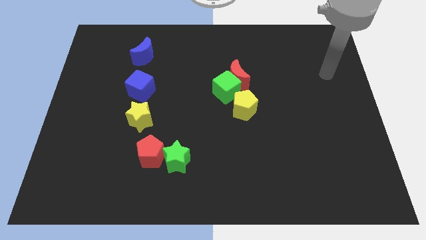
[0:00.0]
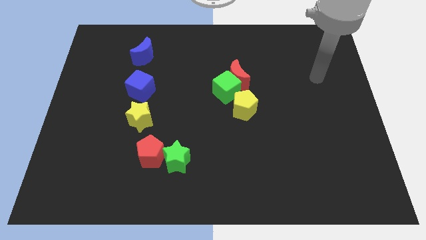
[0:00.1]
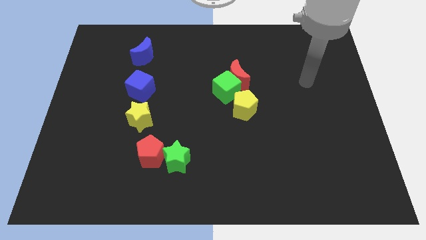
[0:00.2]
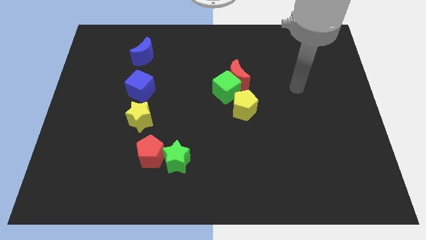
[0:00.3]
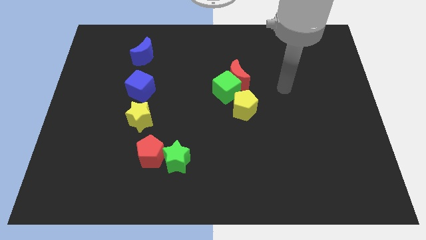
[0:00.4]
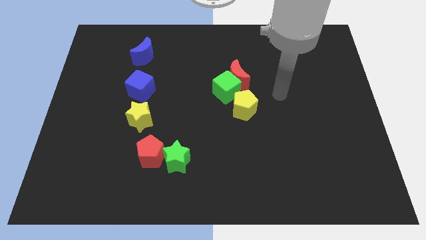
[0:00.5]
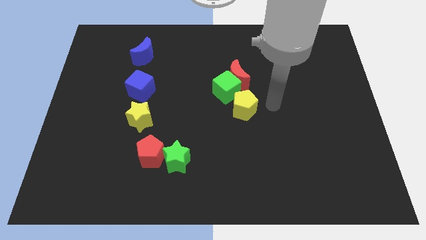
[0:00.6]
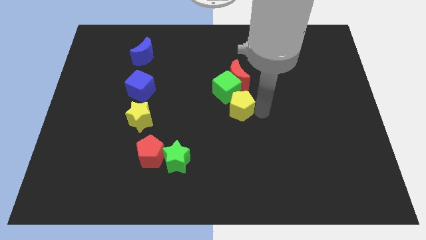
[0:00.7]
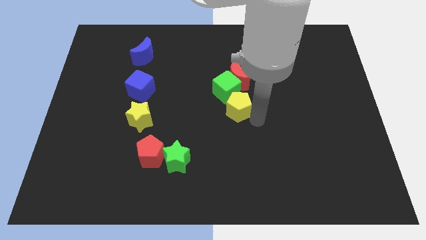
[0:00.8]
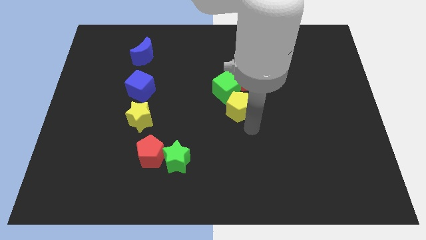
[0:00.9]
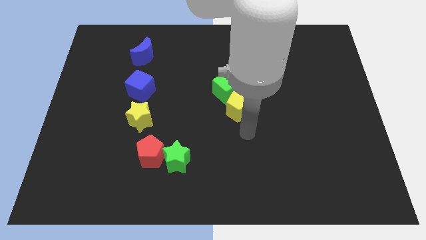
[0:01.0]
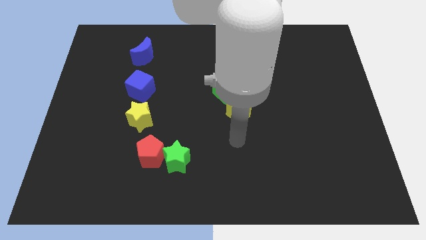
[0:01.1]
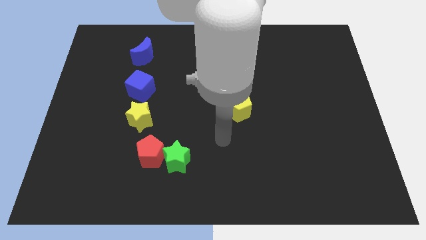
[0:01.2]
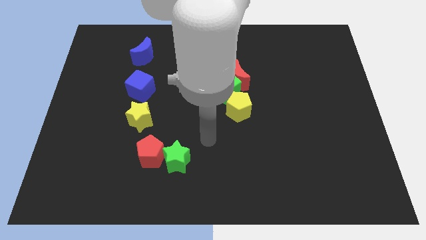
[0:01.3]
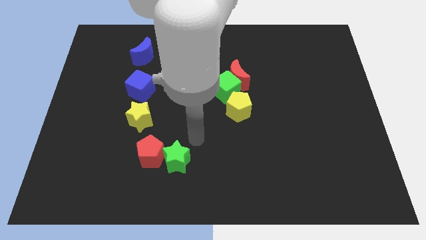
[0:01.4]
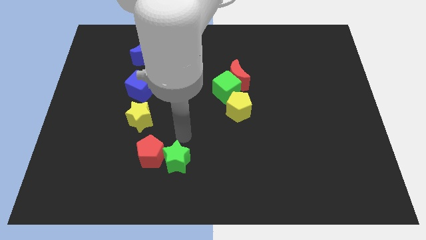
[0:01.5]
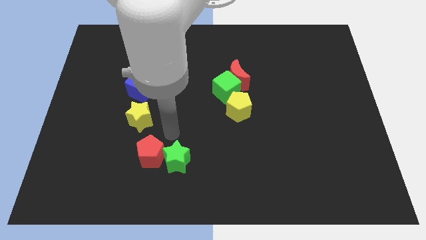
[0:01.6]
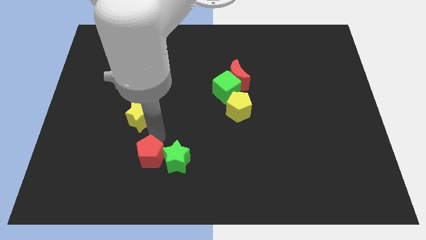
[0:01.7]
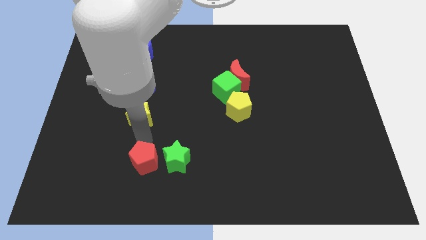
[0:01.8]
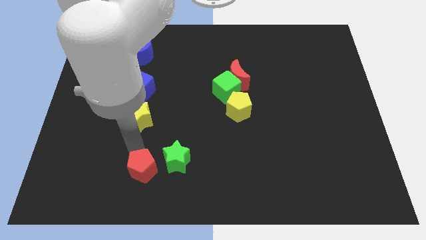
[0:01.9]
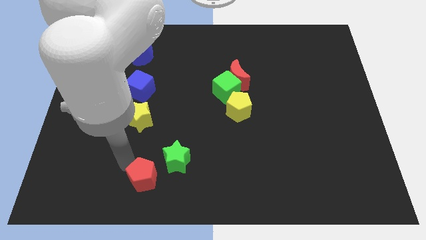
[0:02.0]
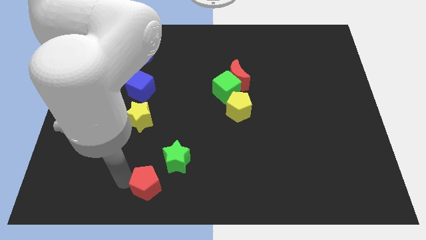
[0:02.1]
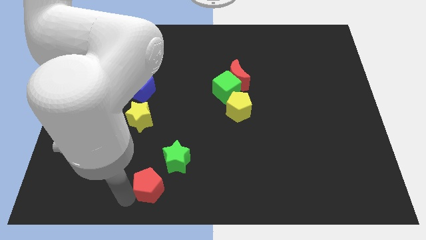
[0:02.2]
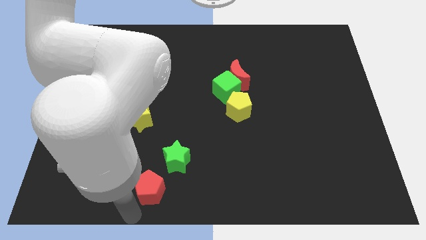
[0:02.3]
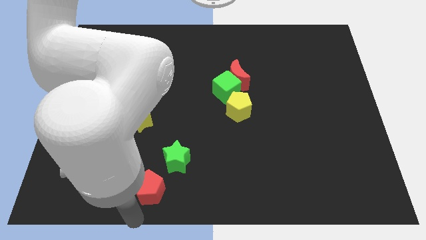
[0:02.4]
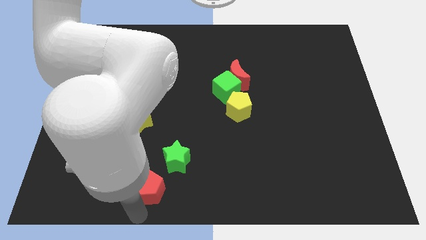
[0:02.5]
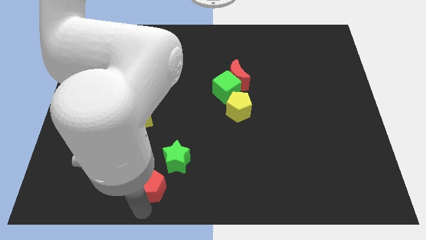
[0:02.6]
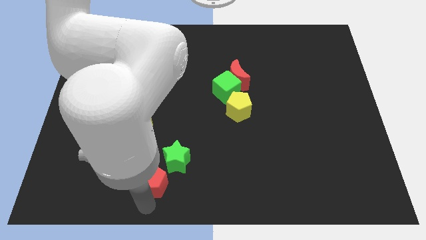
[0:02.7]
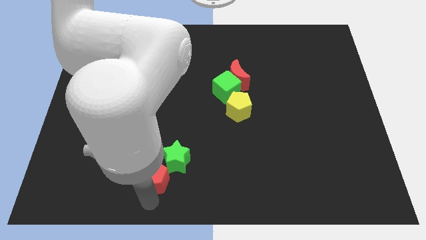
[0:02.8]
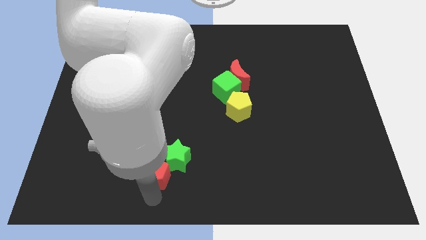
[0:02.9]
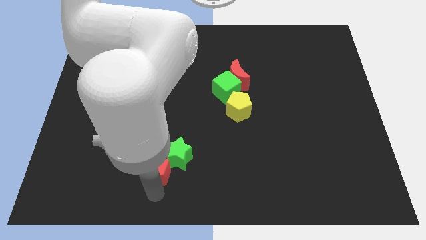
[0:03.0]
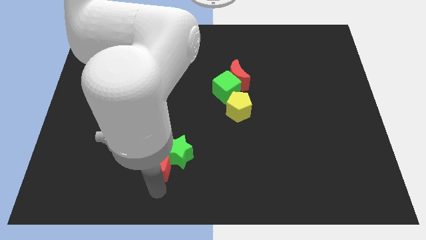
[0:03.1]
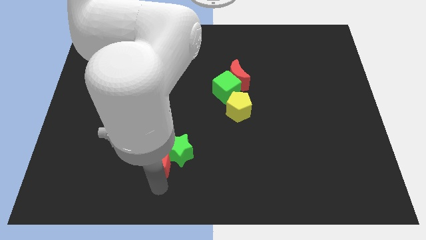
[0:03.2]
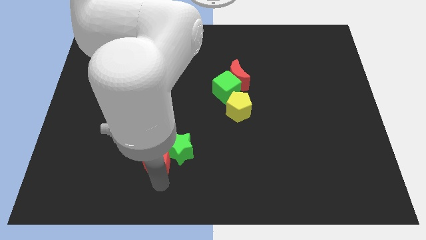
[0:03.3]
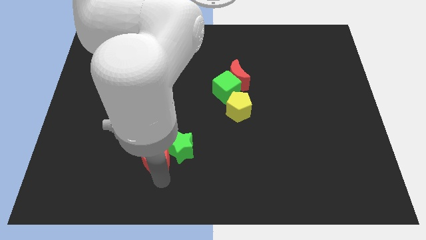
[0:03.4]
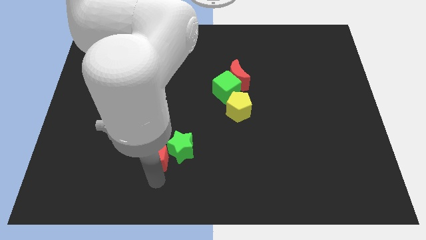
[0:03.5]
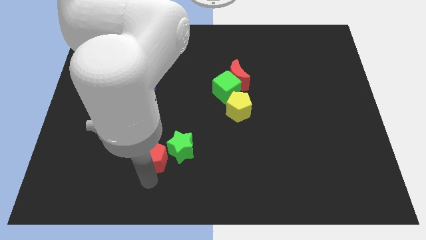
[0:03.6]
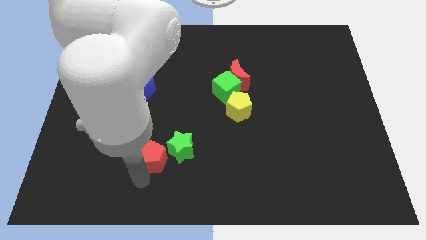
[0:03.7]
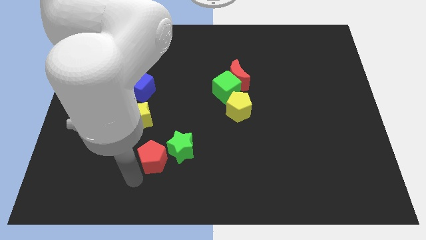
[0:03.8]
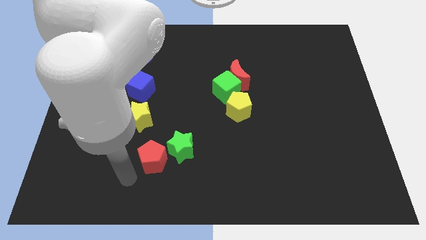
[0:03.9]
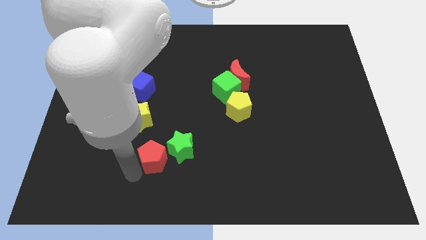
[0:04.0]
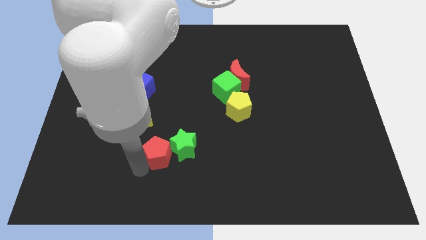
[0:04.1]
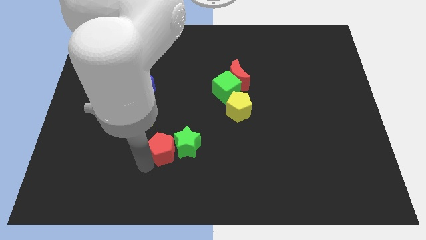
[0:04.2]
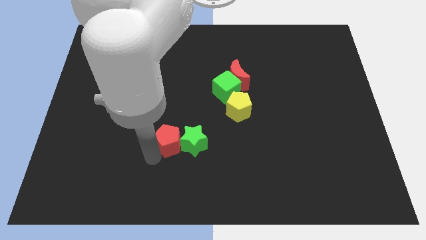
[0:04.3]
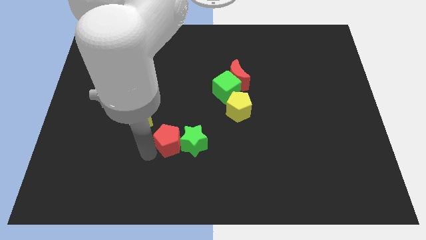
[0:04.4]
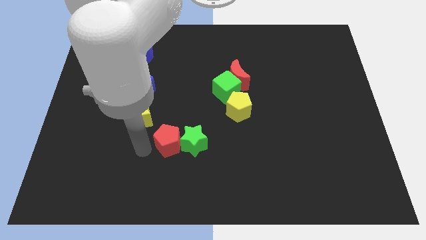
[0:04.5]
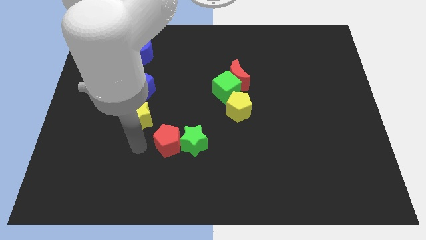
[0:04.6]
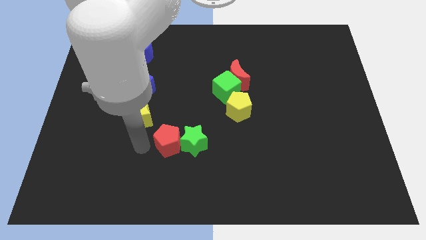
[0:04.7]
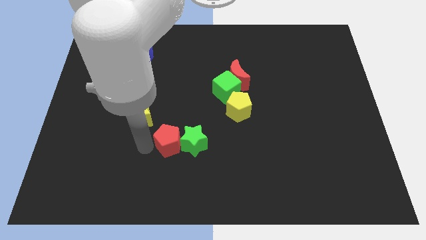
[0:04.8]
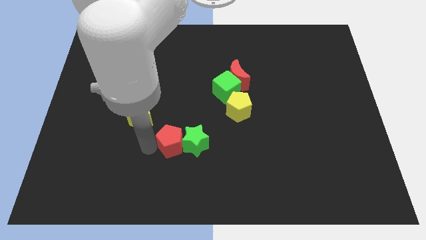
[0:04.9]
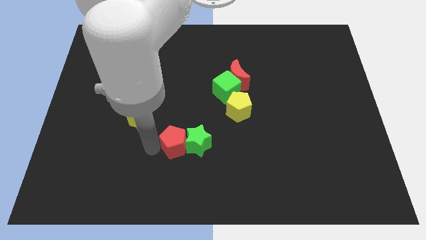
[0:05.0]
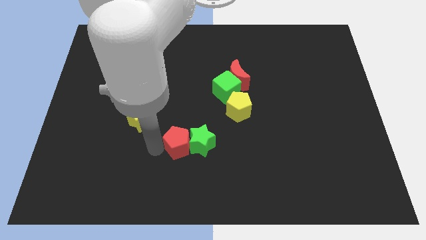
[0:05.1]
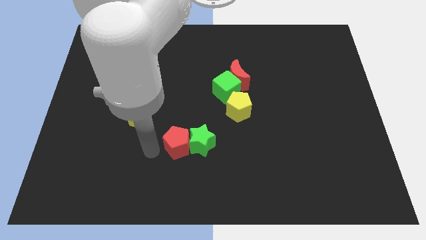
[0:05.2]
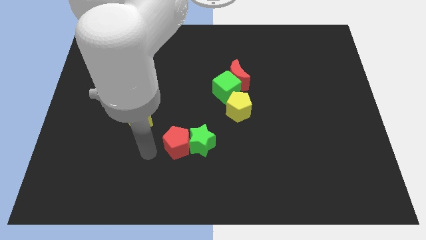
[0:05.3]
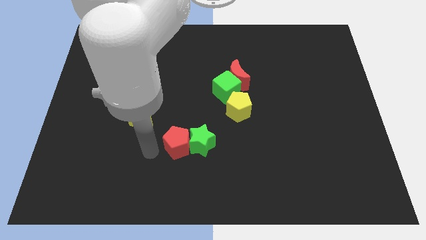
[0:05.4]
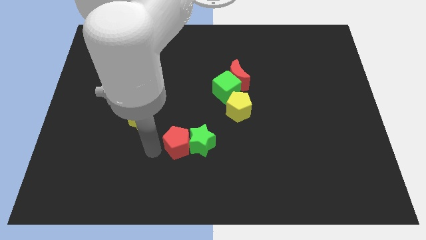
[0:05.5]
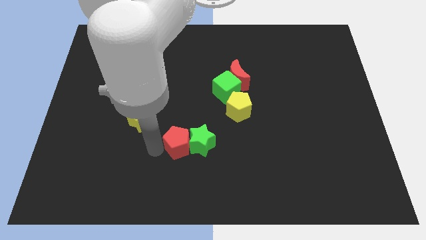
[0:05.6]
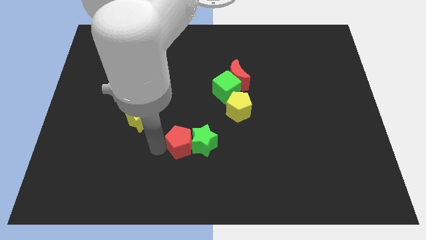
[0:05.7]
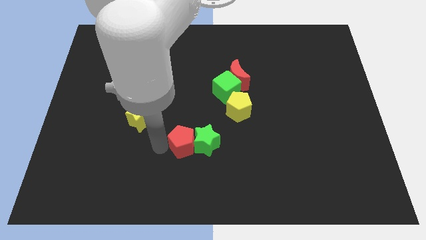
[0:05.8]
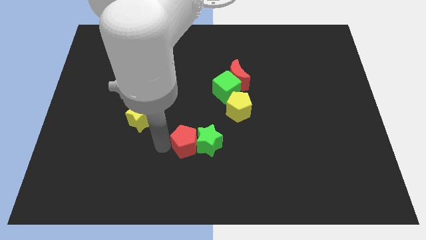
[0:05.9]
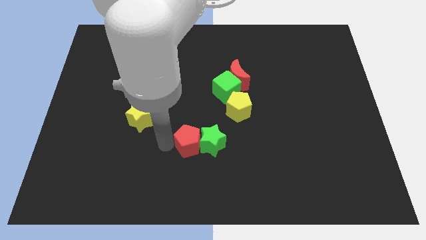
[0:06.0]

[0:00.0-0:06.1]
slide the red pentagon slightly to the right

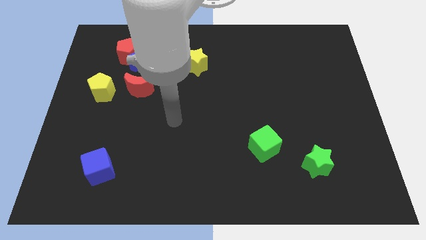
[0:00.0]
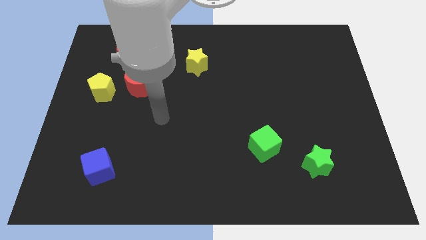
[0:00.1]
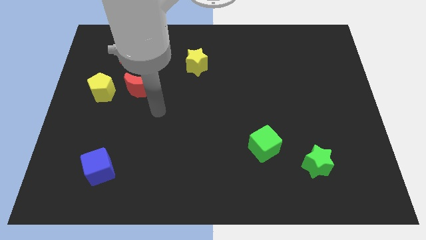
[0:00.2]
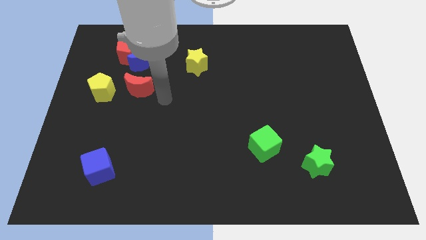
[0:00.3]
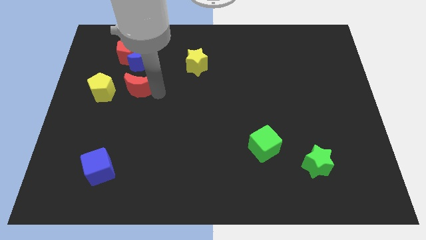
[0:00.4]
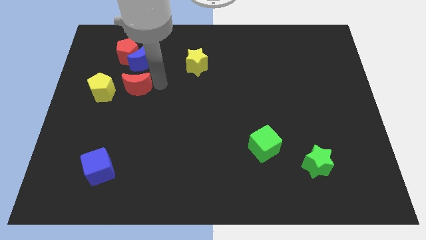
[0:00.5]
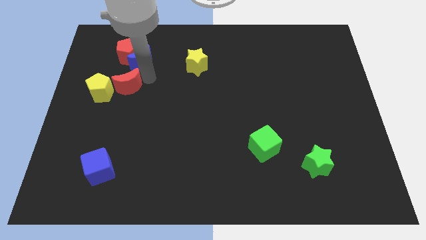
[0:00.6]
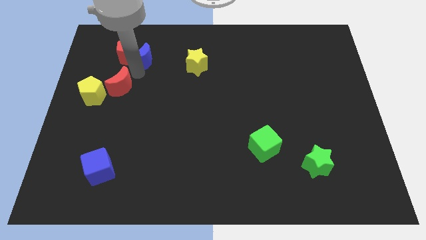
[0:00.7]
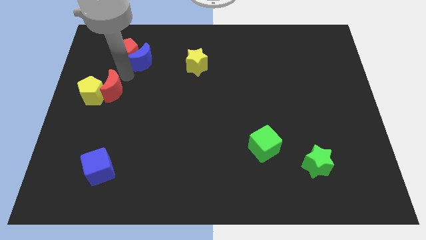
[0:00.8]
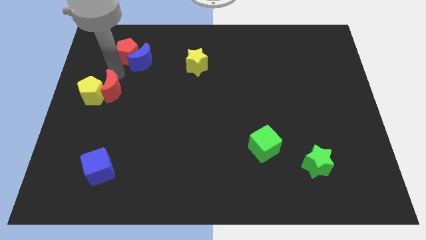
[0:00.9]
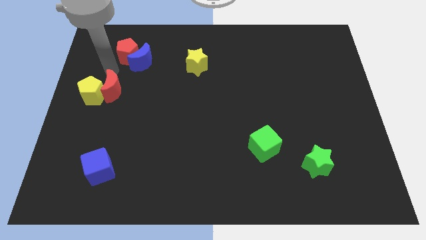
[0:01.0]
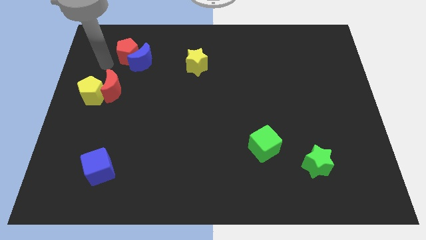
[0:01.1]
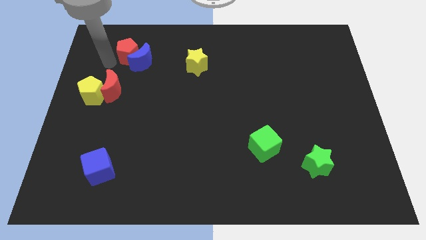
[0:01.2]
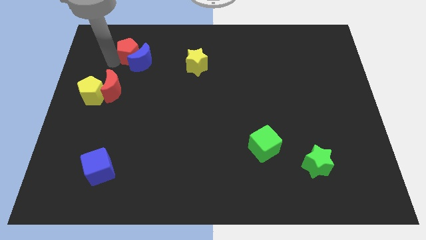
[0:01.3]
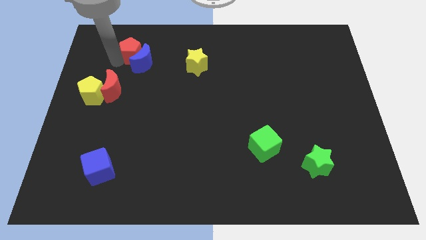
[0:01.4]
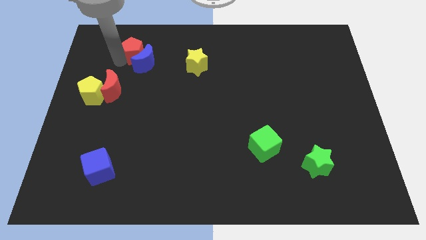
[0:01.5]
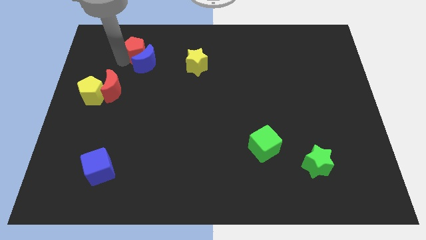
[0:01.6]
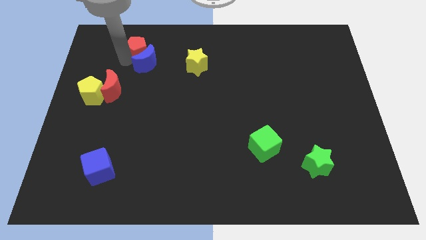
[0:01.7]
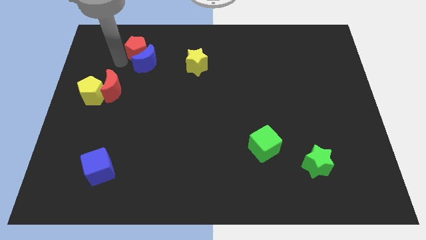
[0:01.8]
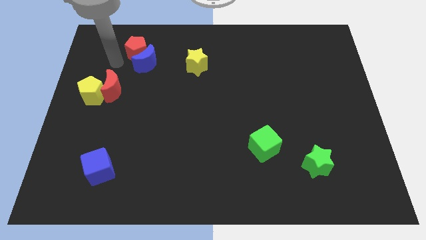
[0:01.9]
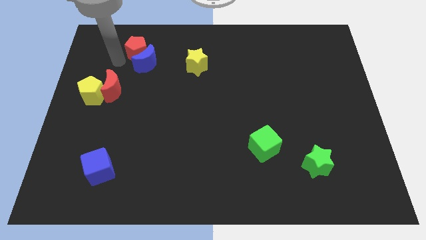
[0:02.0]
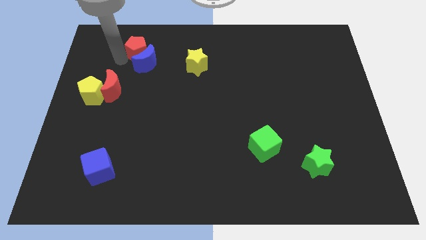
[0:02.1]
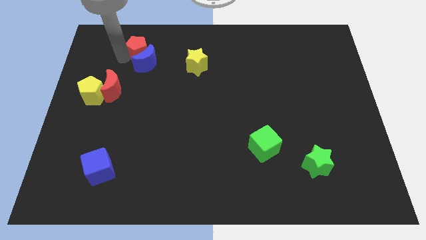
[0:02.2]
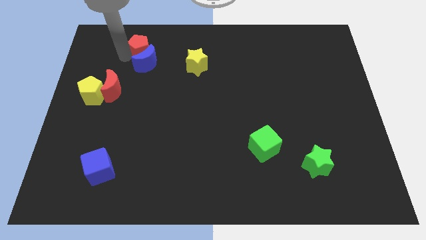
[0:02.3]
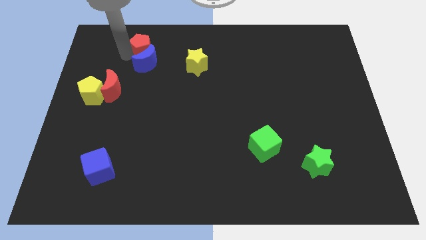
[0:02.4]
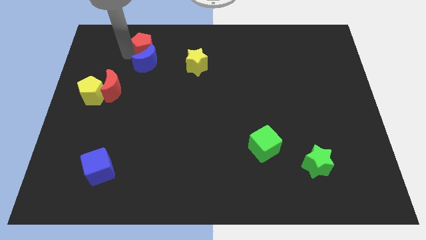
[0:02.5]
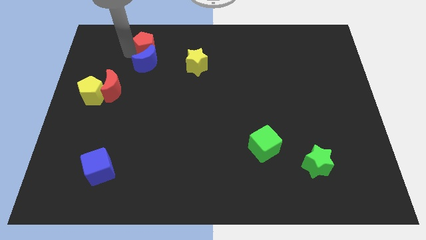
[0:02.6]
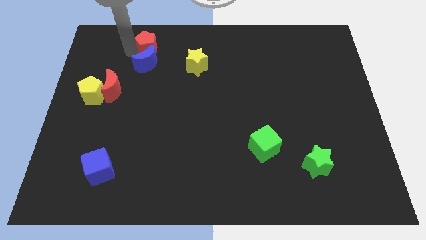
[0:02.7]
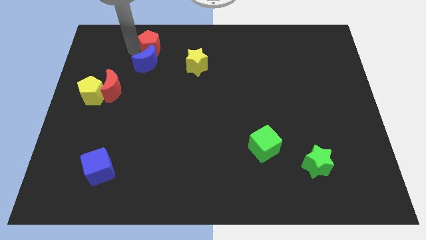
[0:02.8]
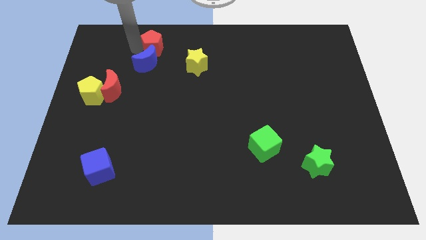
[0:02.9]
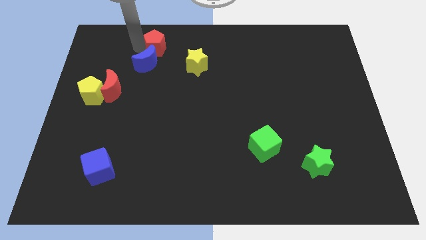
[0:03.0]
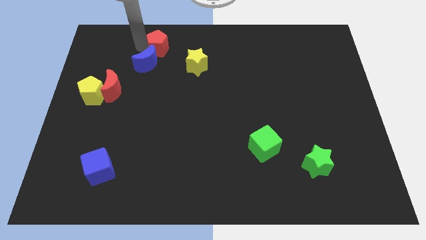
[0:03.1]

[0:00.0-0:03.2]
slide the red pentagon a little right
